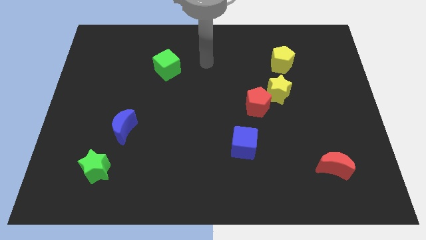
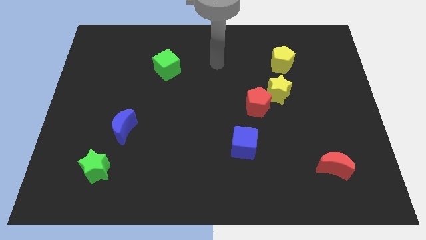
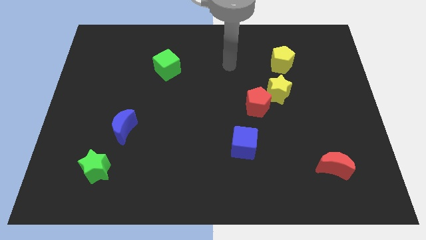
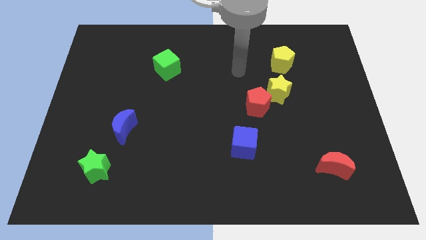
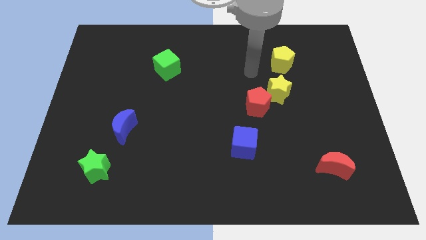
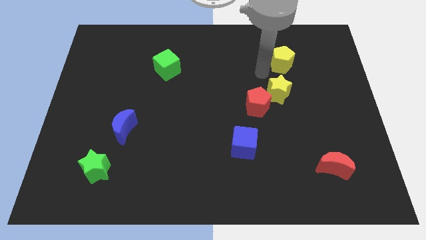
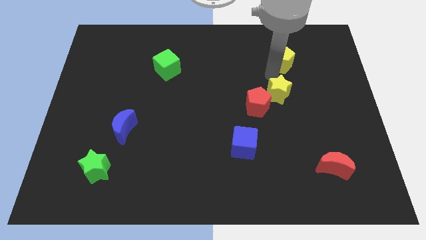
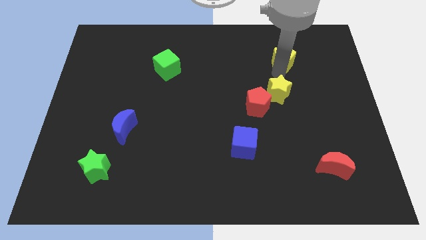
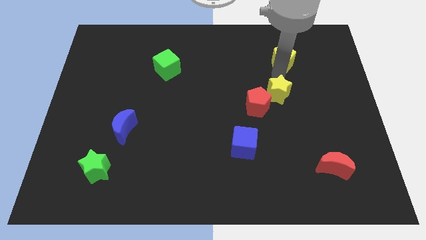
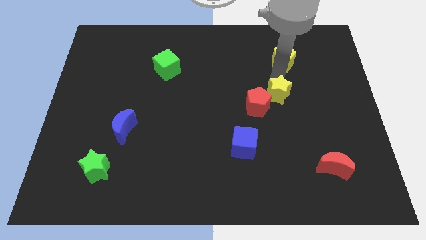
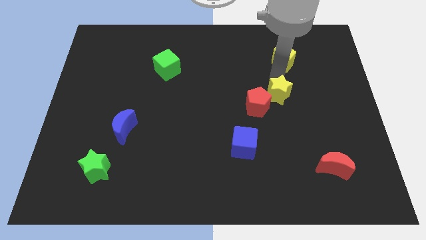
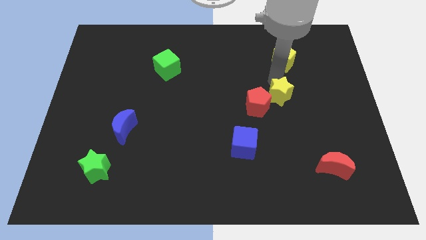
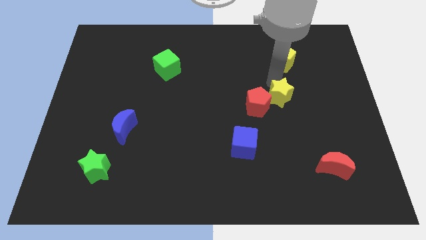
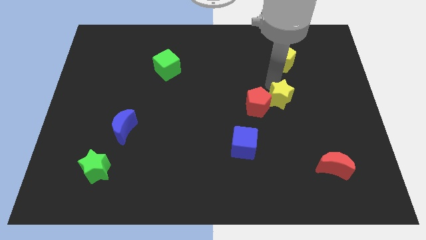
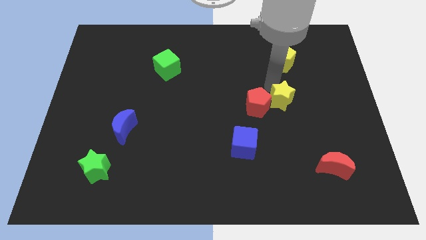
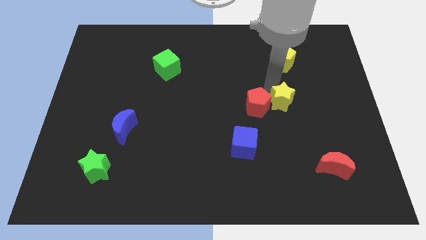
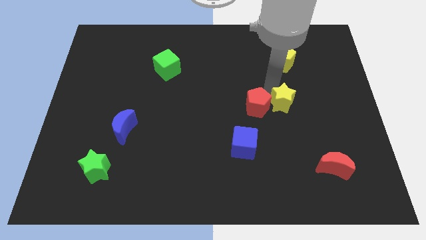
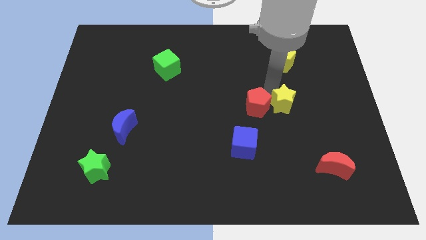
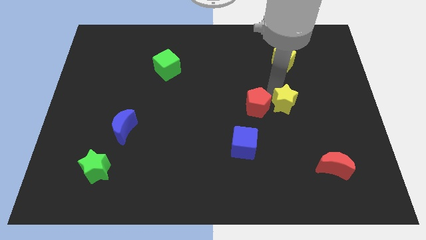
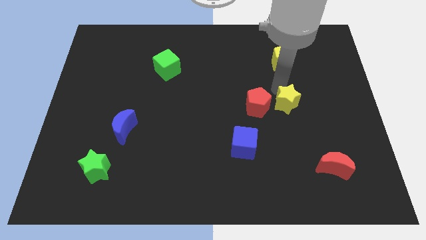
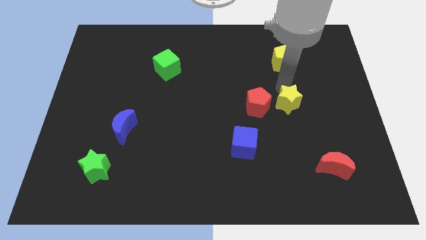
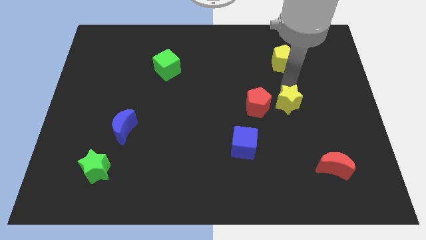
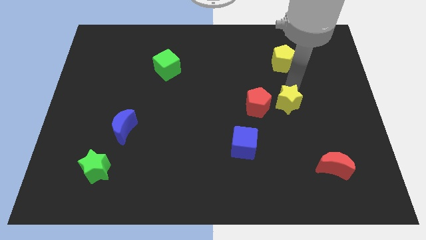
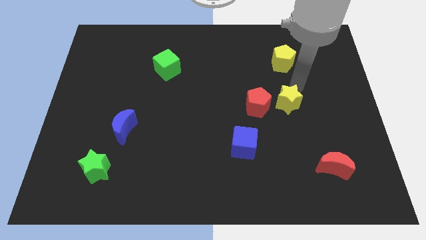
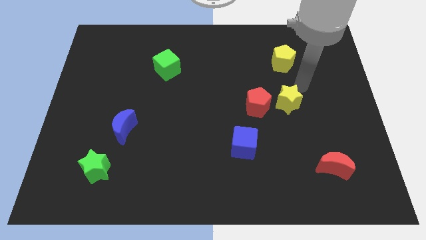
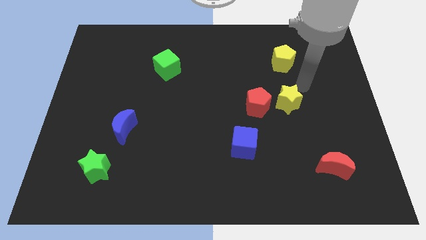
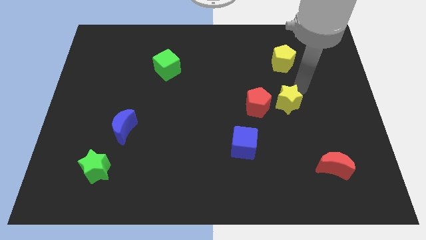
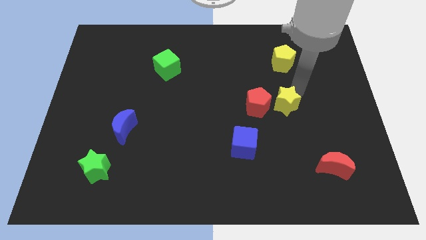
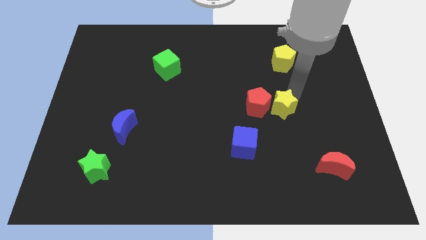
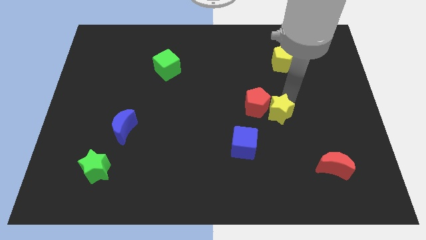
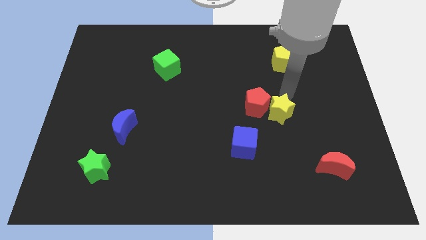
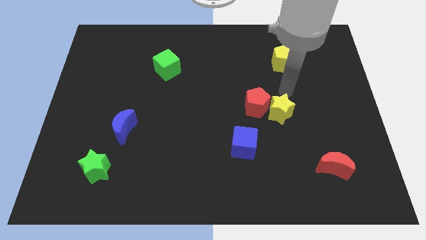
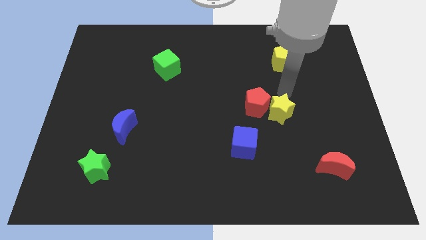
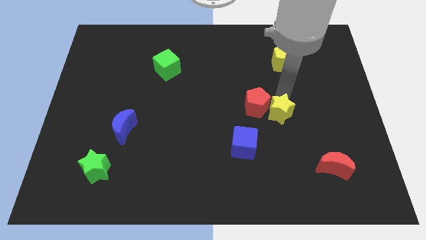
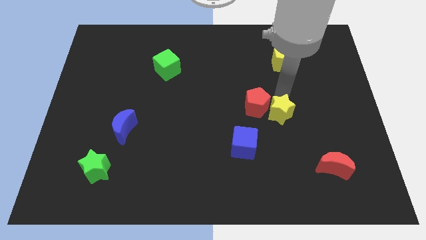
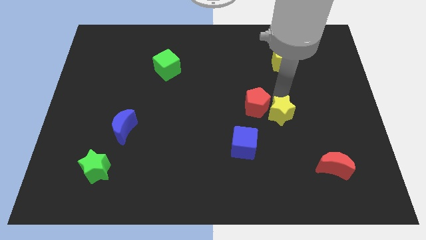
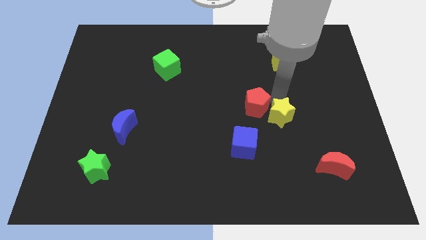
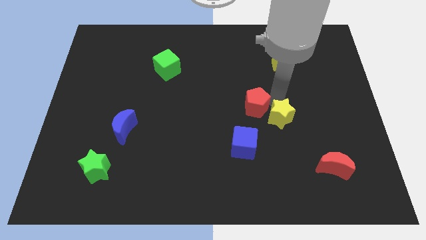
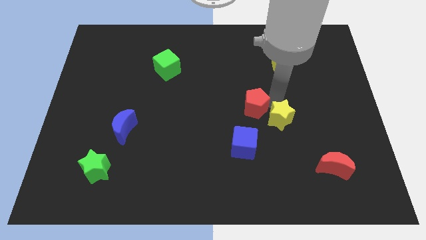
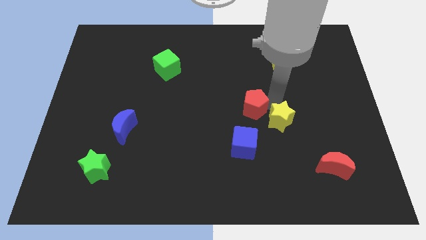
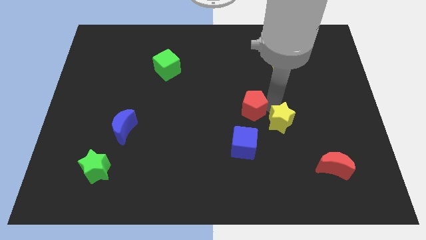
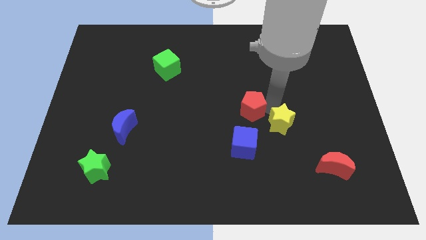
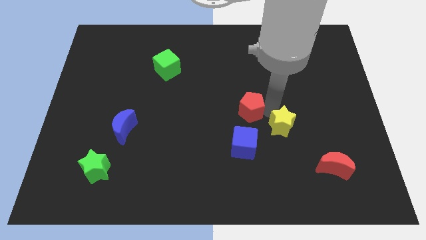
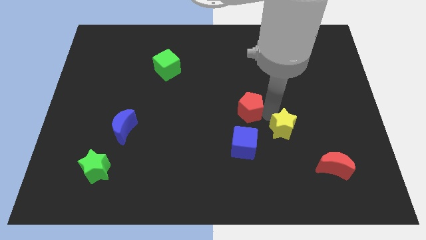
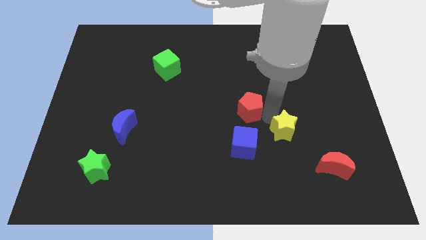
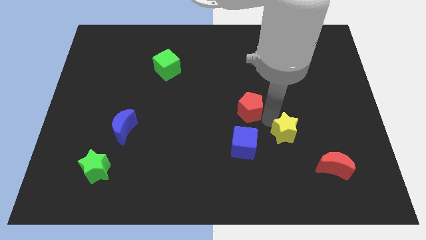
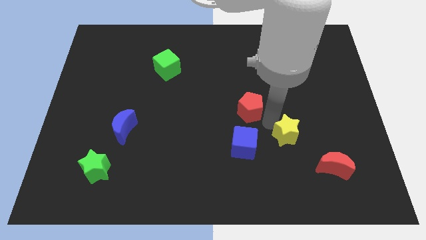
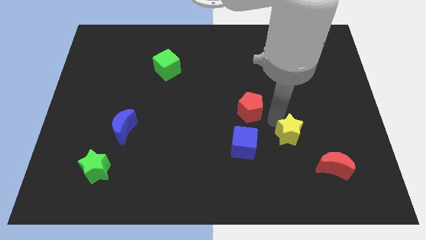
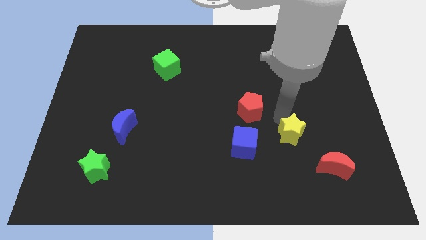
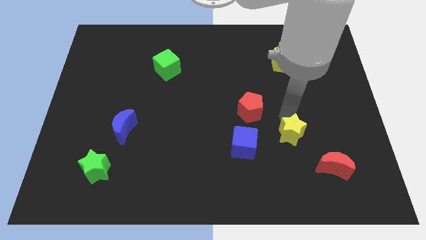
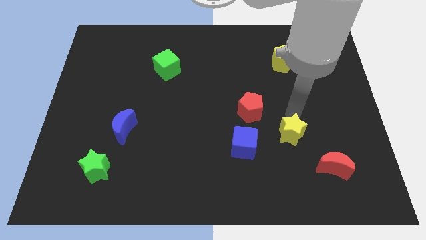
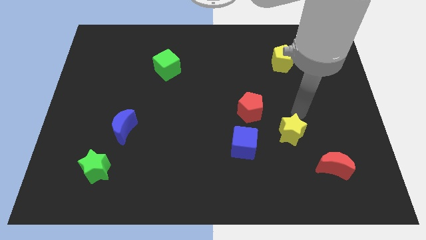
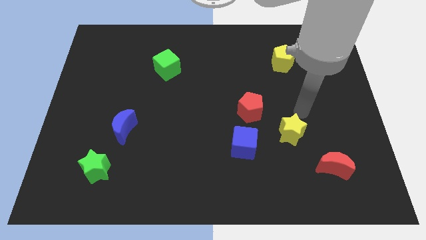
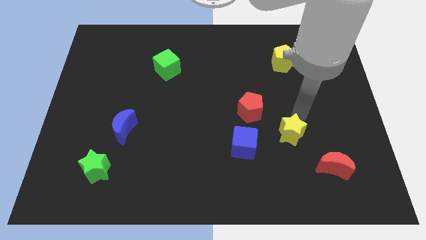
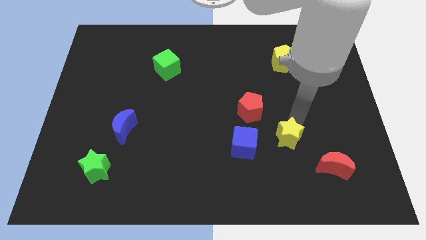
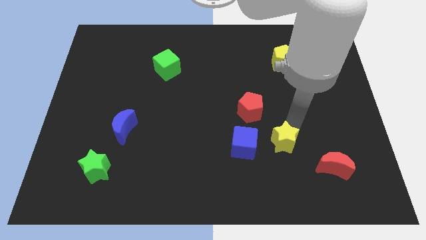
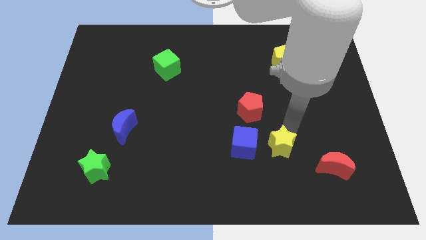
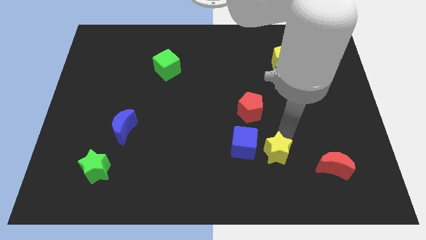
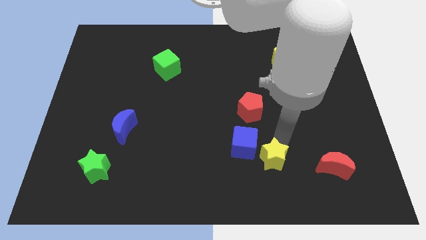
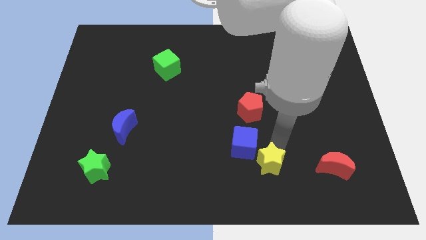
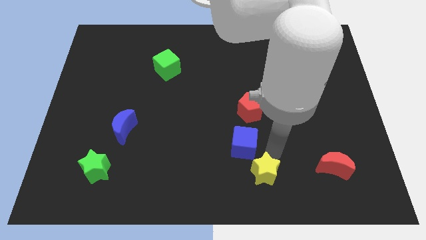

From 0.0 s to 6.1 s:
put the yellow star to the bottom
